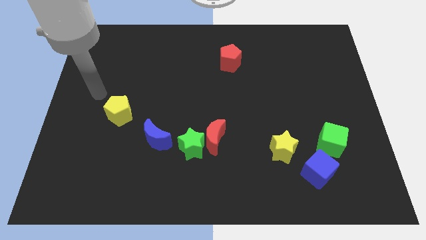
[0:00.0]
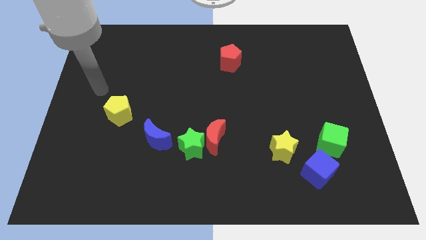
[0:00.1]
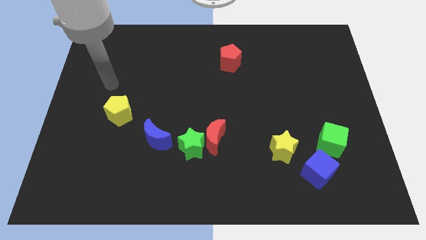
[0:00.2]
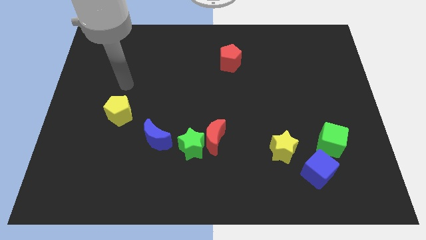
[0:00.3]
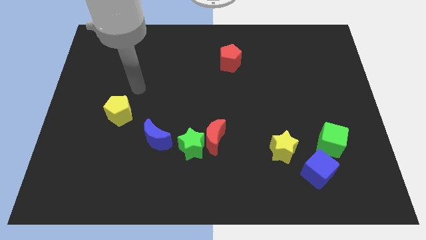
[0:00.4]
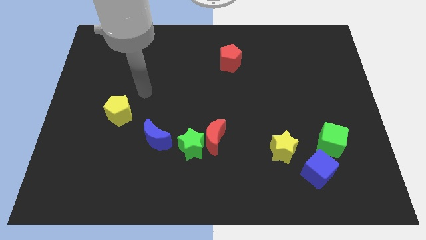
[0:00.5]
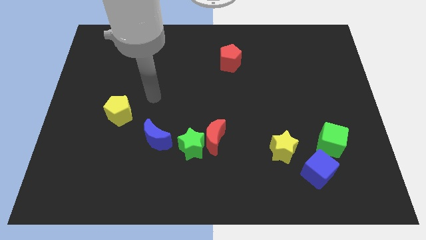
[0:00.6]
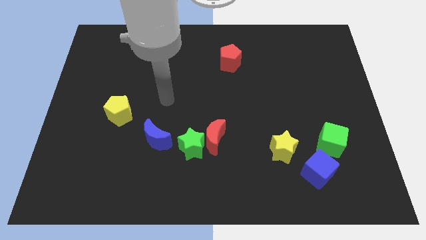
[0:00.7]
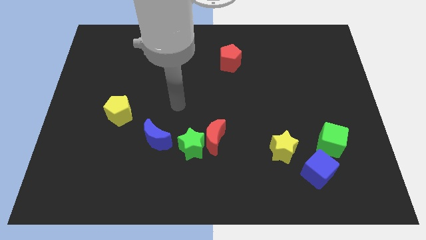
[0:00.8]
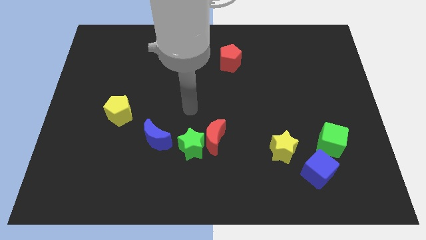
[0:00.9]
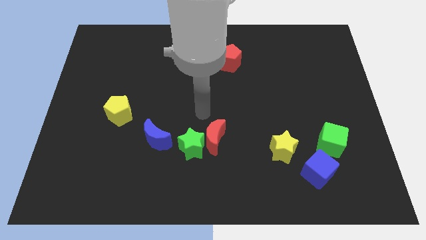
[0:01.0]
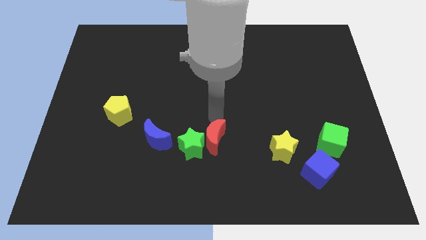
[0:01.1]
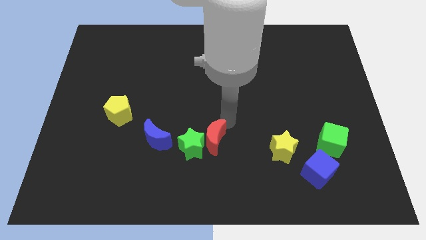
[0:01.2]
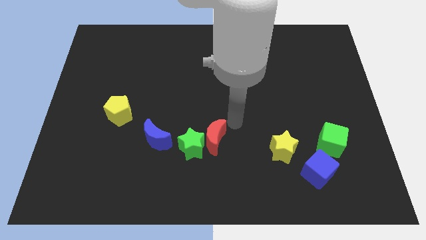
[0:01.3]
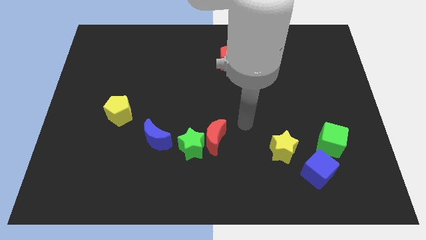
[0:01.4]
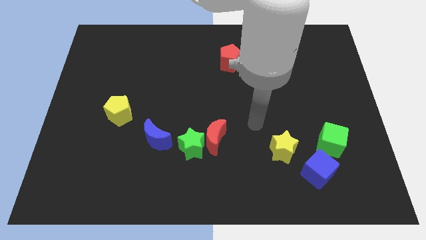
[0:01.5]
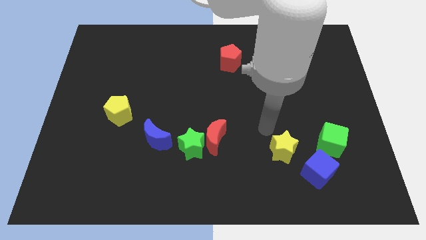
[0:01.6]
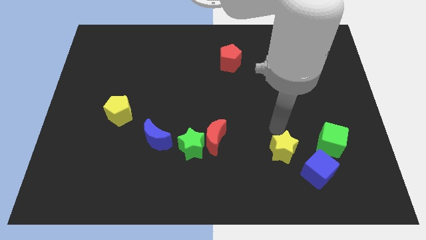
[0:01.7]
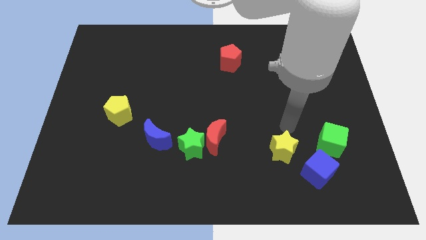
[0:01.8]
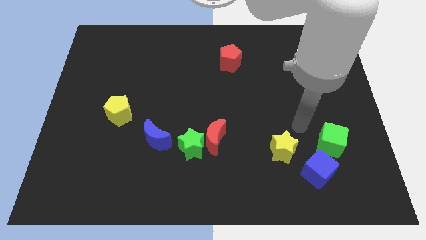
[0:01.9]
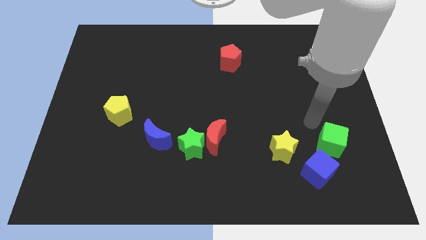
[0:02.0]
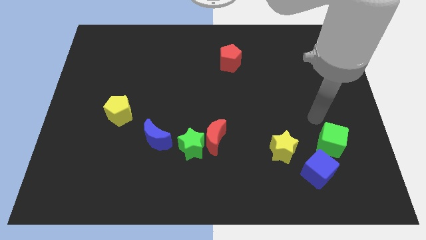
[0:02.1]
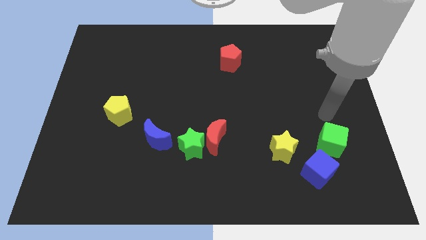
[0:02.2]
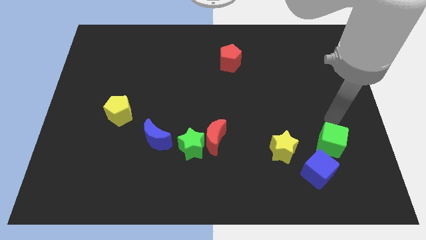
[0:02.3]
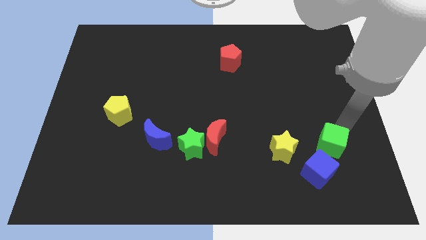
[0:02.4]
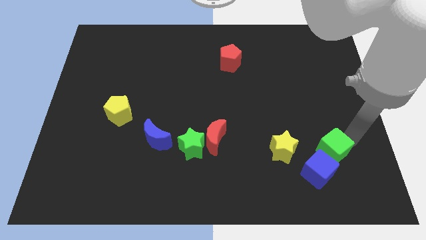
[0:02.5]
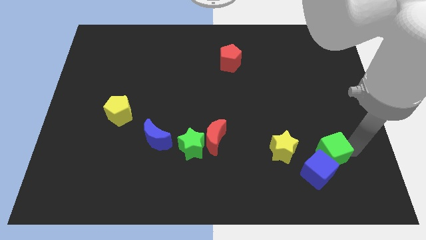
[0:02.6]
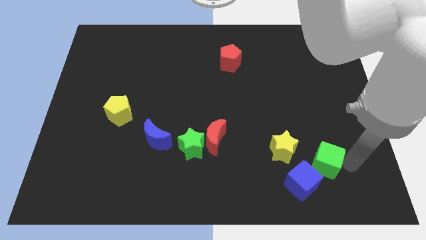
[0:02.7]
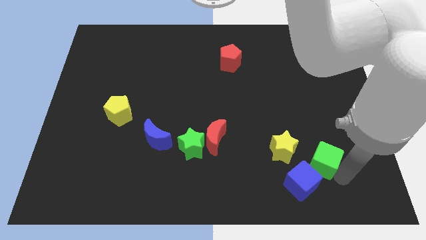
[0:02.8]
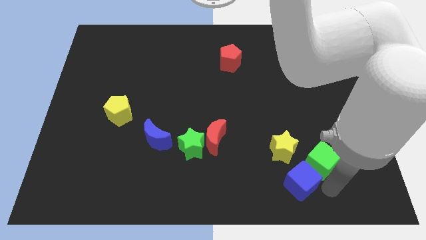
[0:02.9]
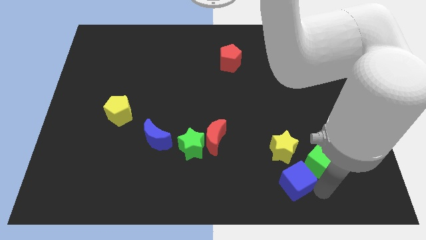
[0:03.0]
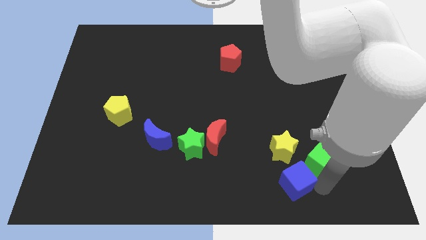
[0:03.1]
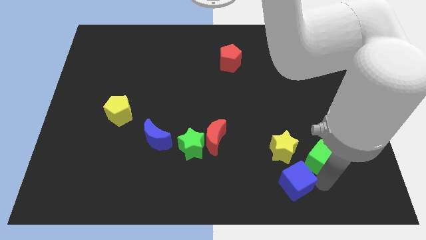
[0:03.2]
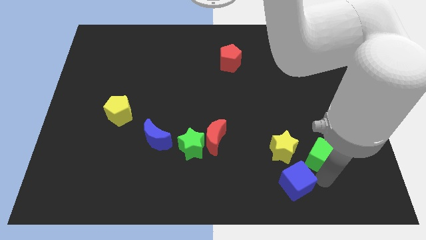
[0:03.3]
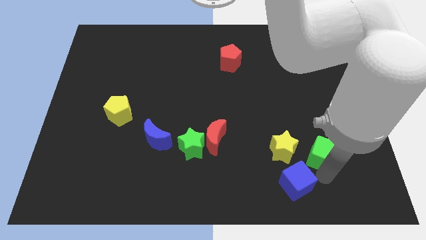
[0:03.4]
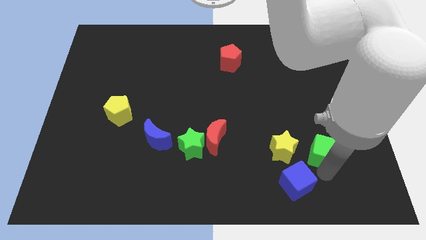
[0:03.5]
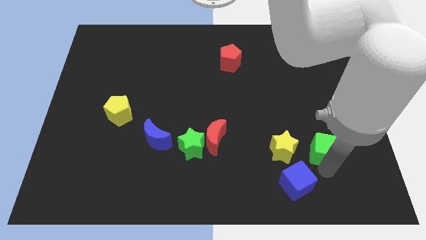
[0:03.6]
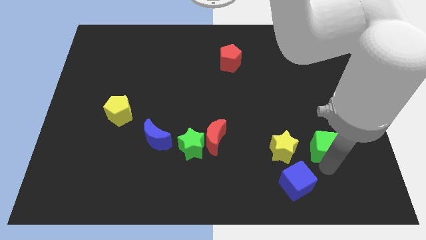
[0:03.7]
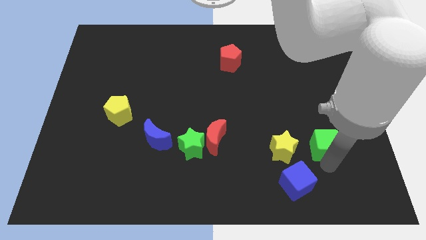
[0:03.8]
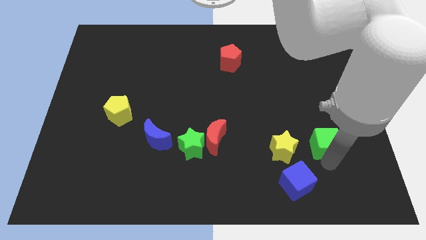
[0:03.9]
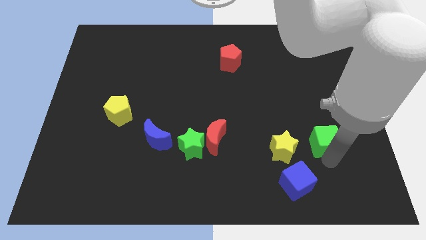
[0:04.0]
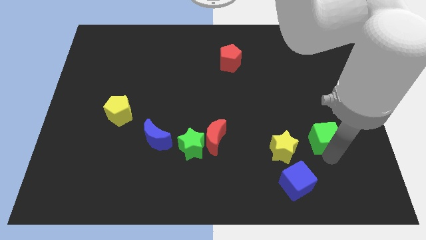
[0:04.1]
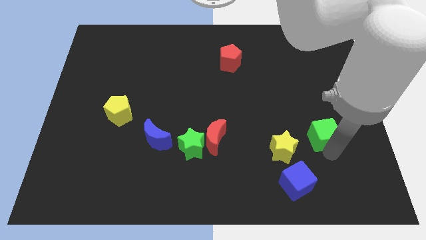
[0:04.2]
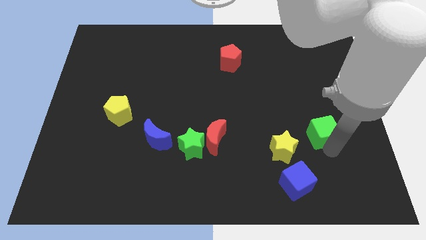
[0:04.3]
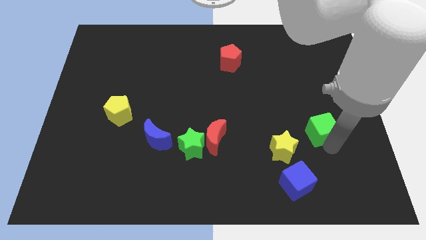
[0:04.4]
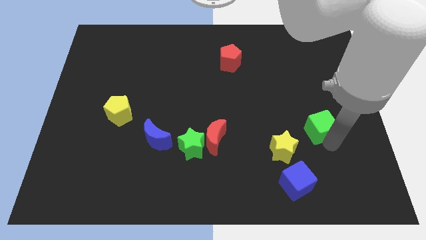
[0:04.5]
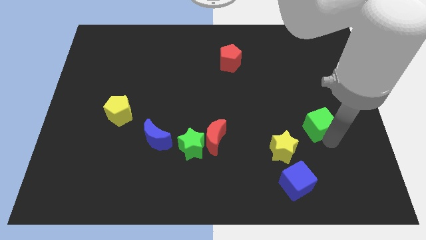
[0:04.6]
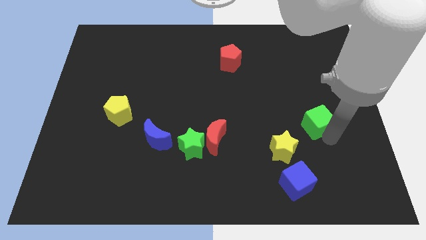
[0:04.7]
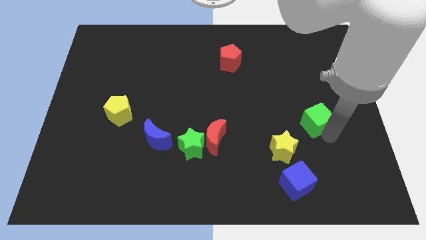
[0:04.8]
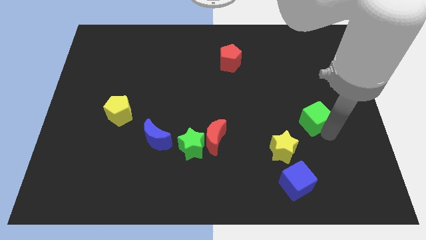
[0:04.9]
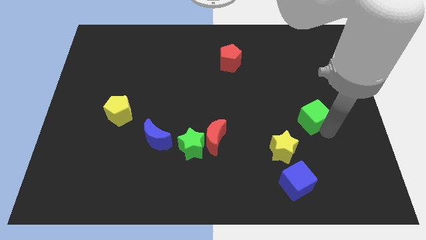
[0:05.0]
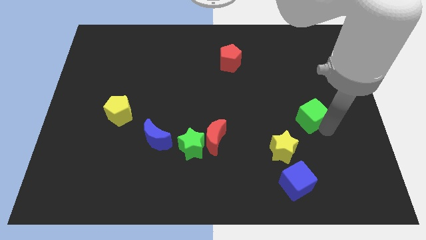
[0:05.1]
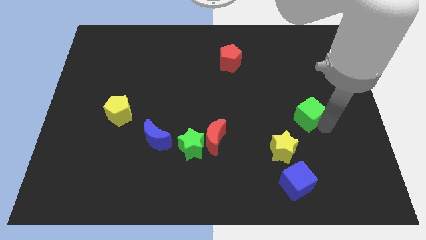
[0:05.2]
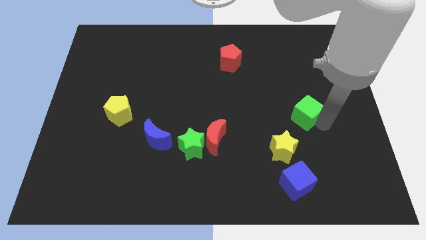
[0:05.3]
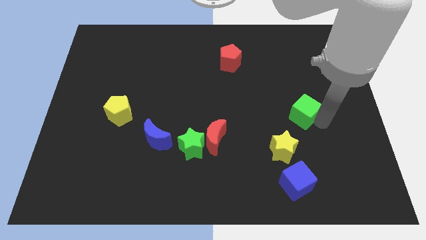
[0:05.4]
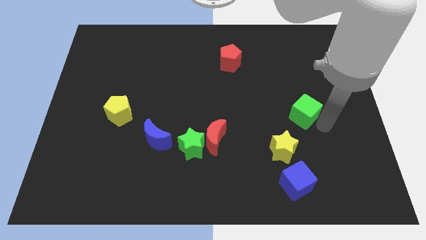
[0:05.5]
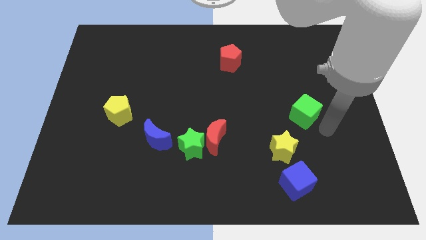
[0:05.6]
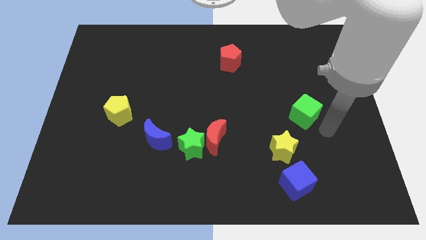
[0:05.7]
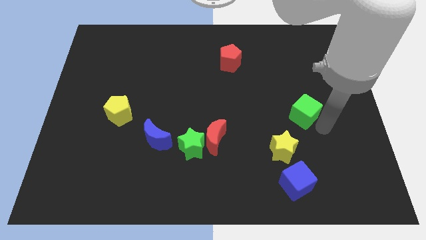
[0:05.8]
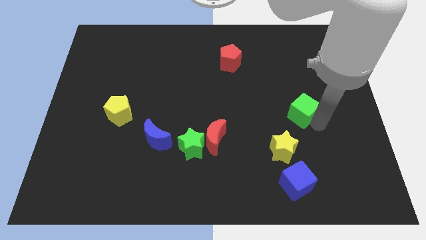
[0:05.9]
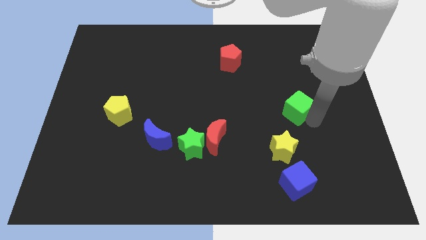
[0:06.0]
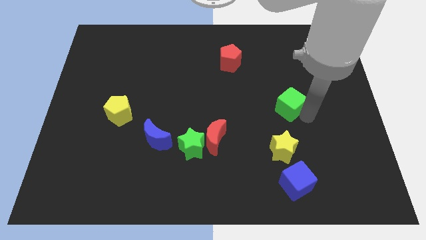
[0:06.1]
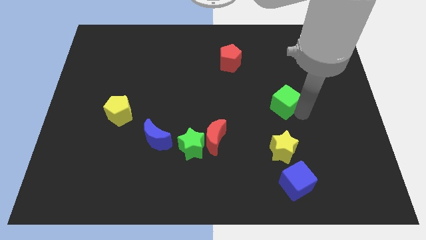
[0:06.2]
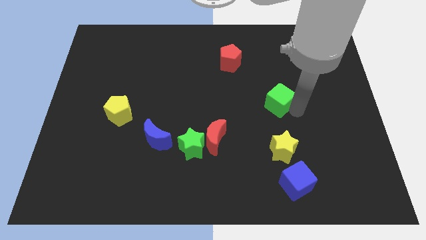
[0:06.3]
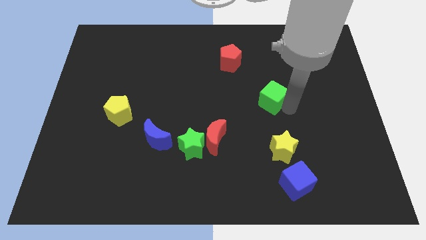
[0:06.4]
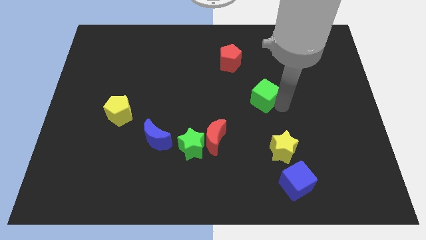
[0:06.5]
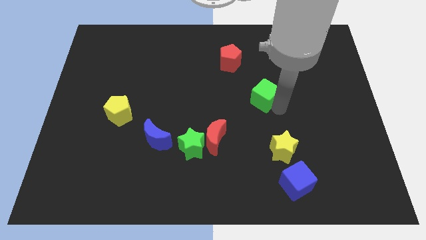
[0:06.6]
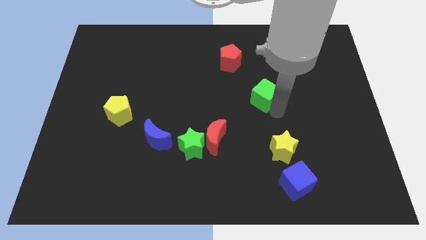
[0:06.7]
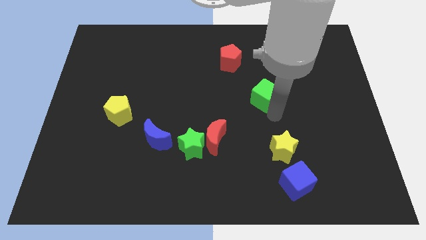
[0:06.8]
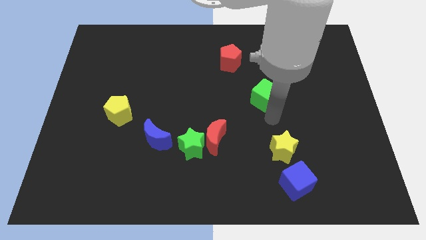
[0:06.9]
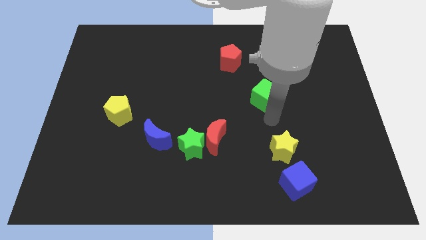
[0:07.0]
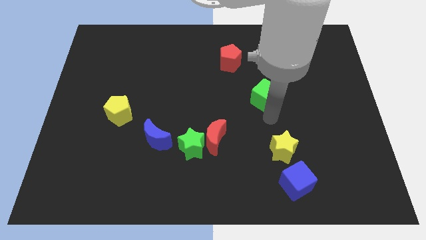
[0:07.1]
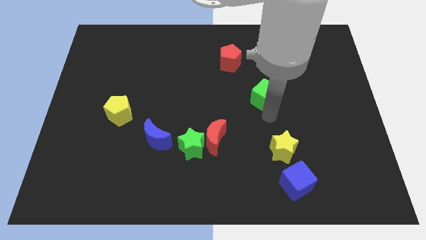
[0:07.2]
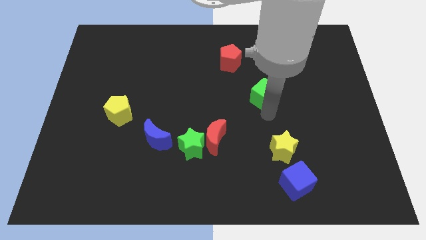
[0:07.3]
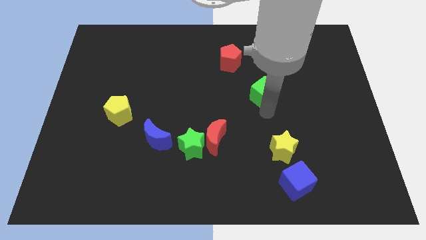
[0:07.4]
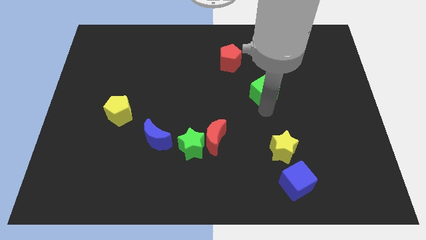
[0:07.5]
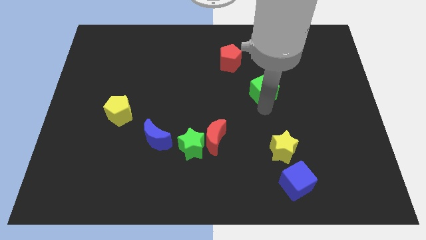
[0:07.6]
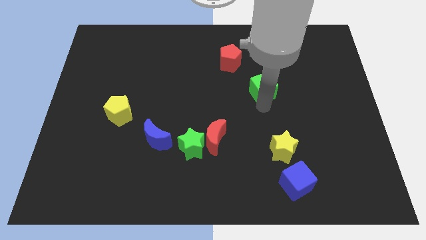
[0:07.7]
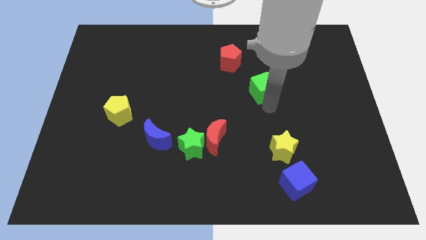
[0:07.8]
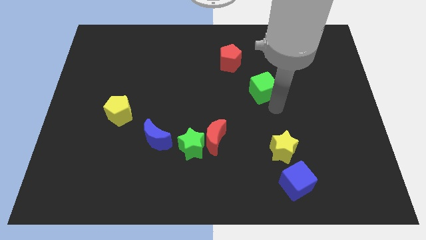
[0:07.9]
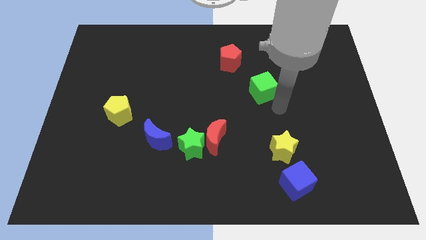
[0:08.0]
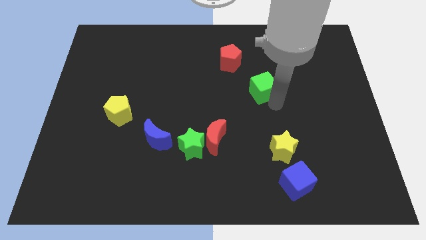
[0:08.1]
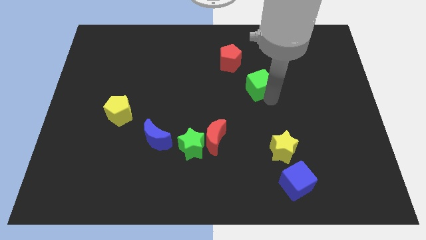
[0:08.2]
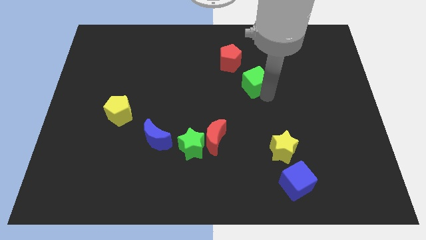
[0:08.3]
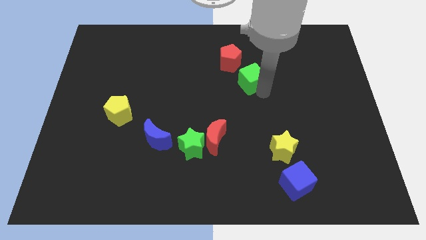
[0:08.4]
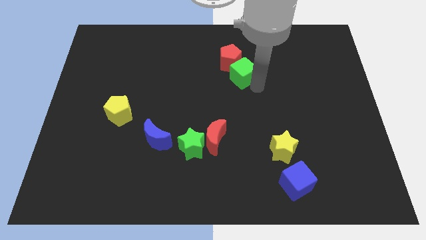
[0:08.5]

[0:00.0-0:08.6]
move the green cube next to the red pentagon
